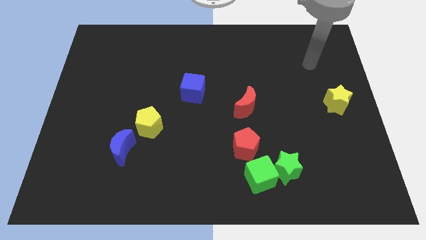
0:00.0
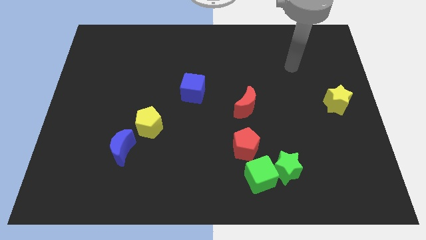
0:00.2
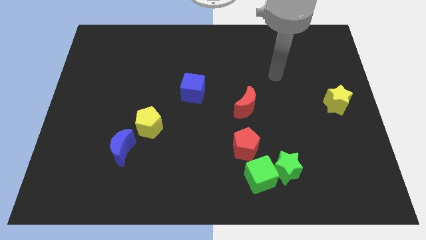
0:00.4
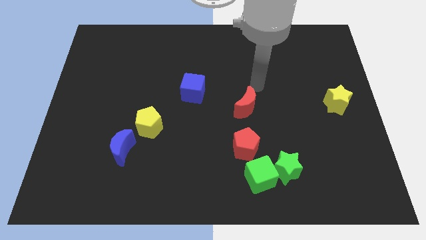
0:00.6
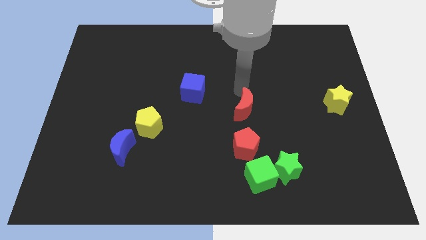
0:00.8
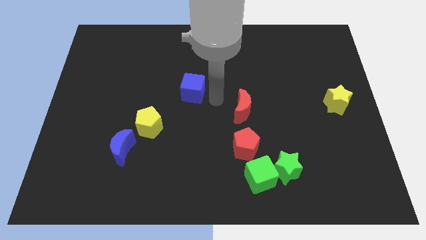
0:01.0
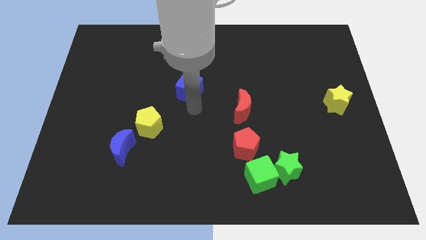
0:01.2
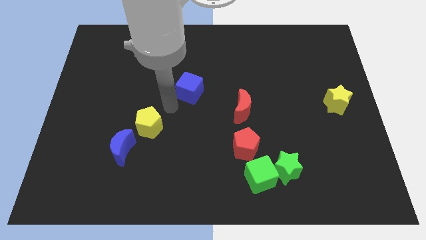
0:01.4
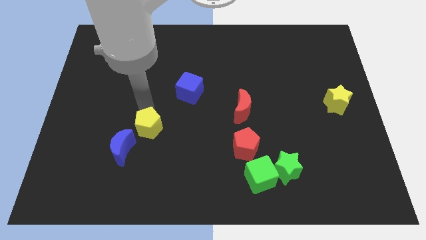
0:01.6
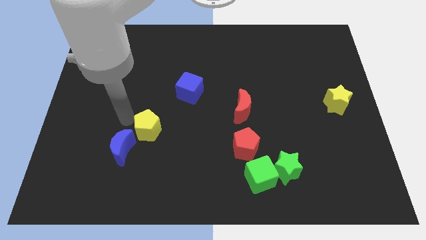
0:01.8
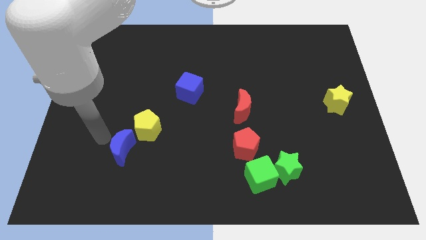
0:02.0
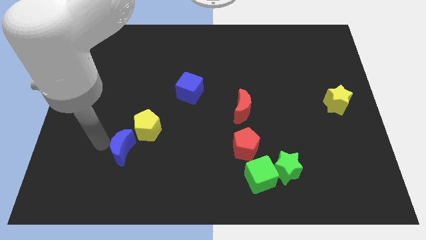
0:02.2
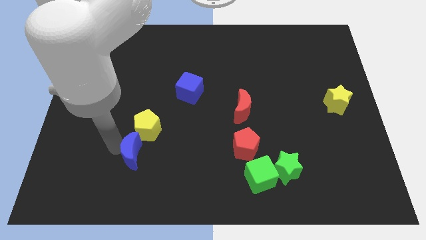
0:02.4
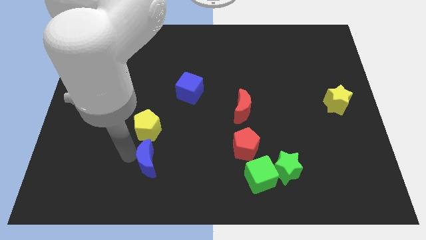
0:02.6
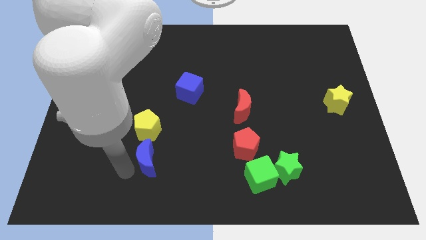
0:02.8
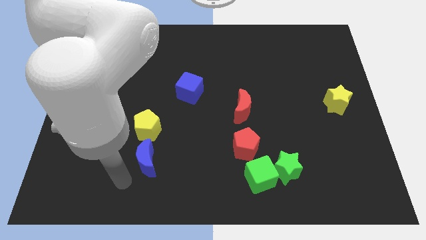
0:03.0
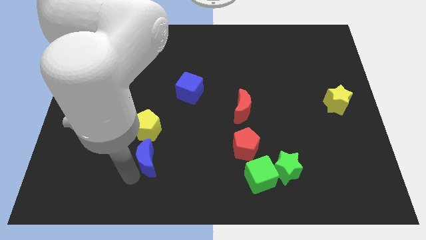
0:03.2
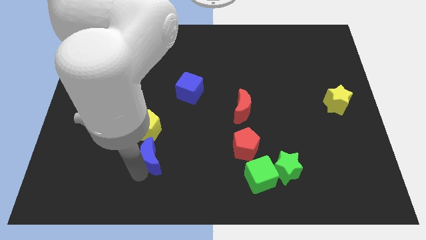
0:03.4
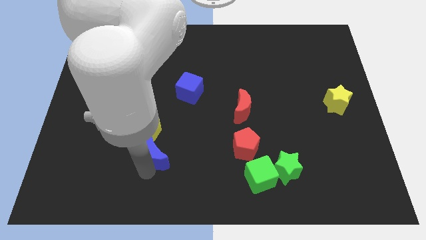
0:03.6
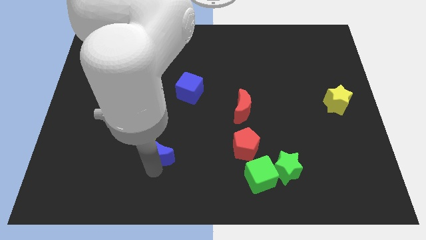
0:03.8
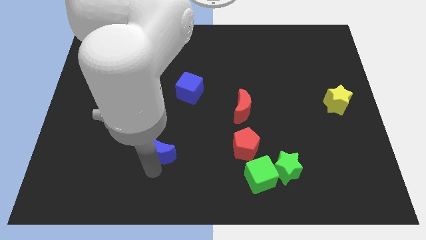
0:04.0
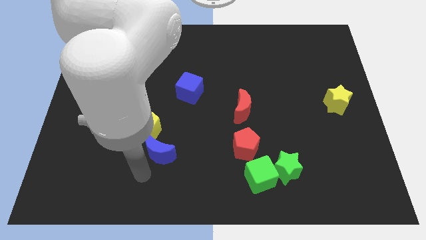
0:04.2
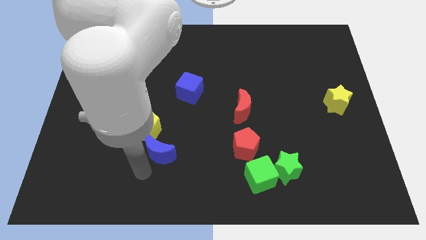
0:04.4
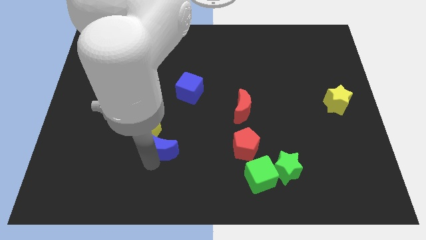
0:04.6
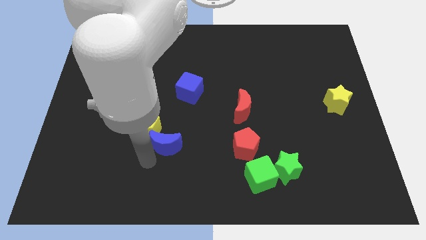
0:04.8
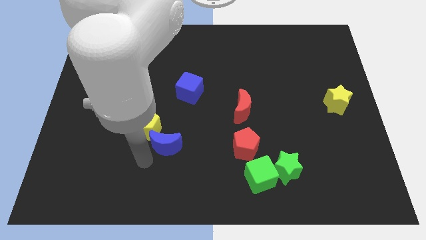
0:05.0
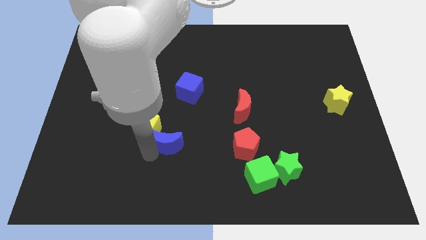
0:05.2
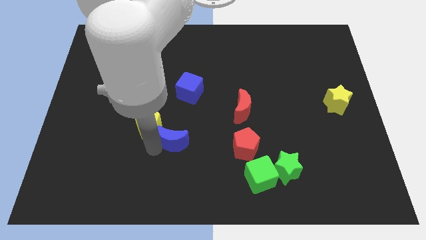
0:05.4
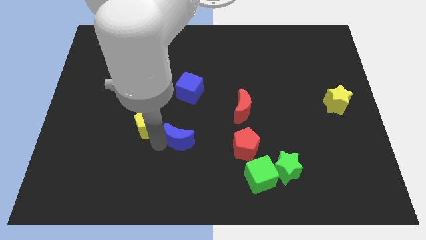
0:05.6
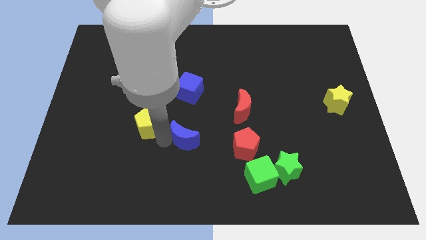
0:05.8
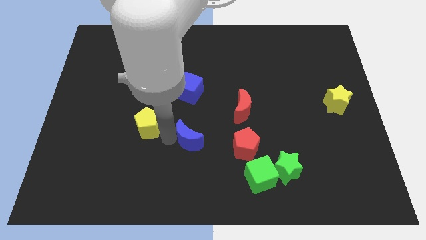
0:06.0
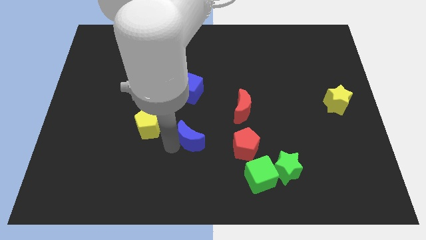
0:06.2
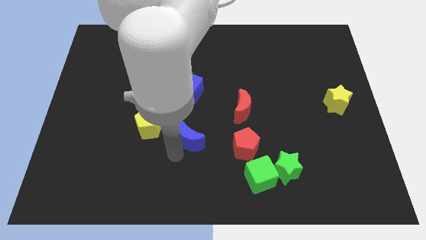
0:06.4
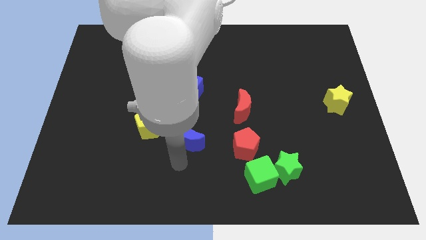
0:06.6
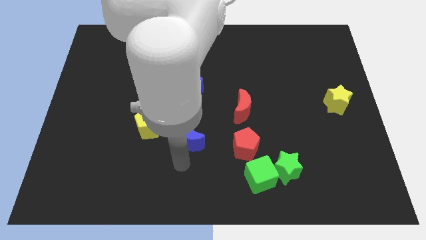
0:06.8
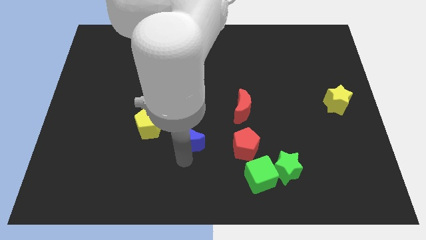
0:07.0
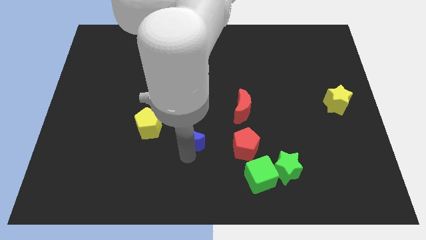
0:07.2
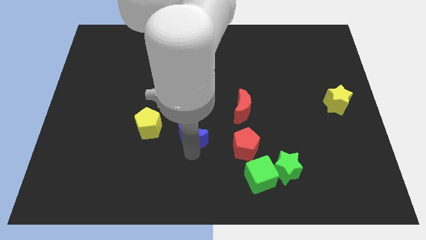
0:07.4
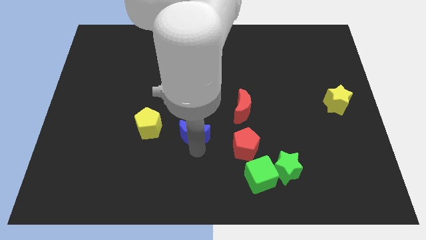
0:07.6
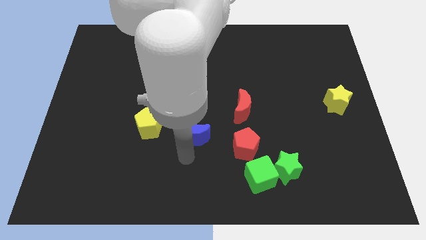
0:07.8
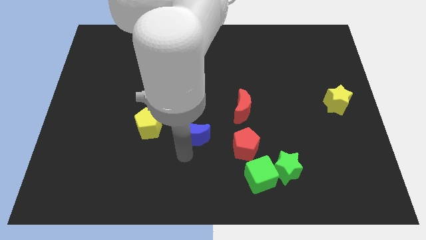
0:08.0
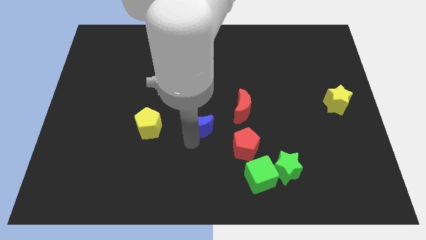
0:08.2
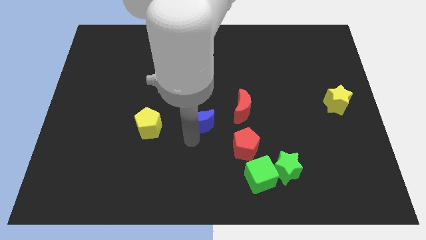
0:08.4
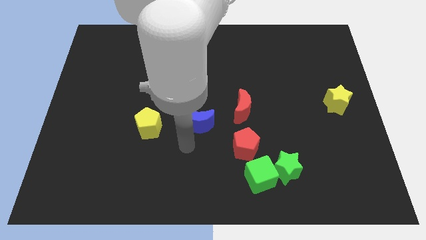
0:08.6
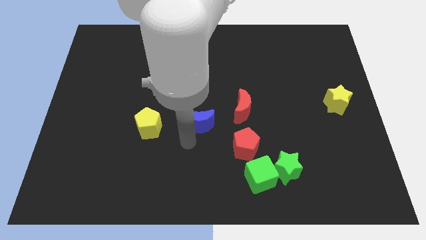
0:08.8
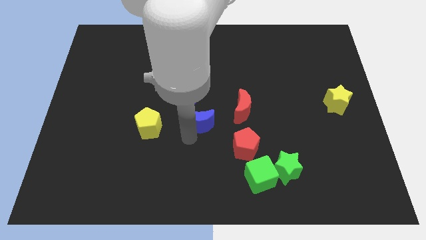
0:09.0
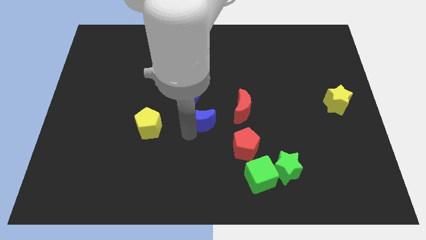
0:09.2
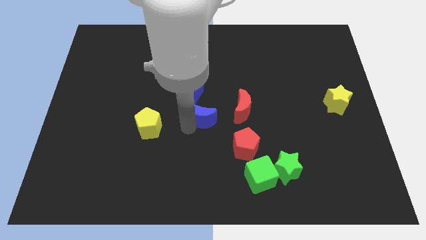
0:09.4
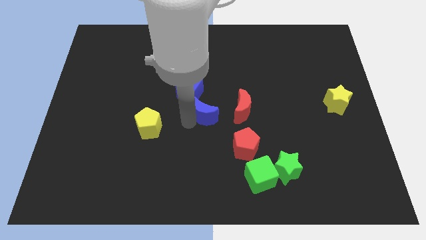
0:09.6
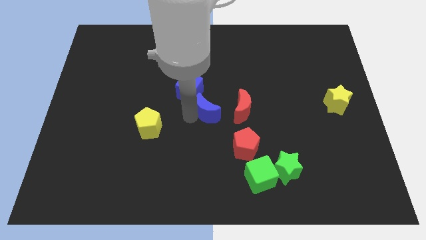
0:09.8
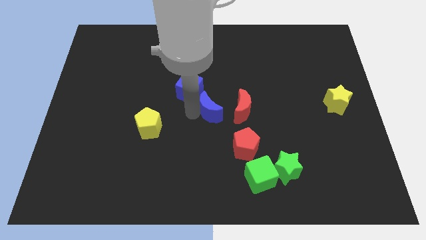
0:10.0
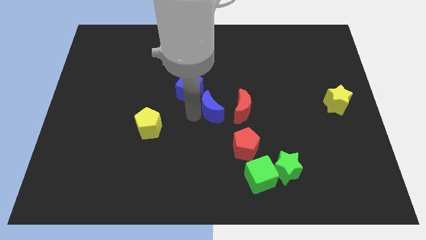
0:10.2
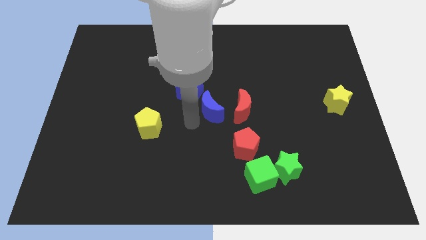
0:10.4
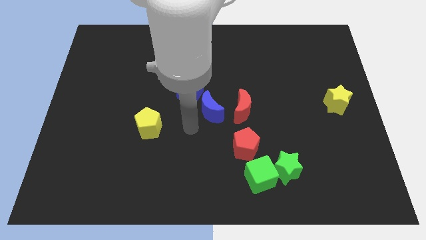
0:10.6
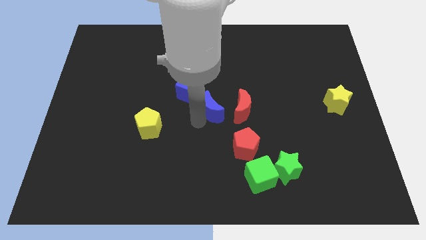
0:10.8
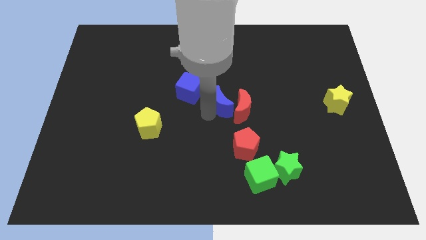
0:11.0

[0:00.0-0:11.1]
put the blue moon to the right side of the blue cube
